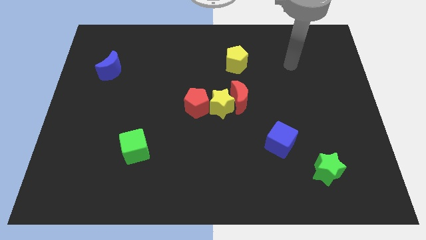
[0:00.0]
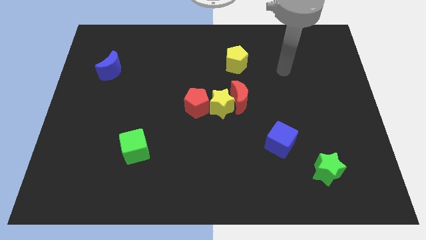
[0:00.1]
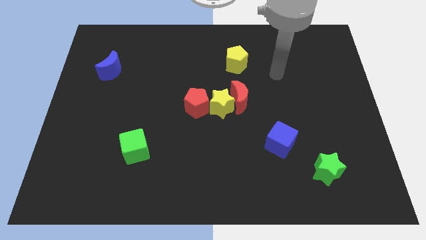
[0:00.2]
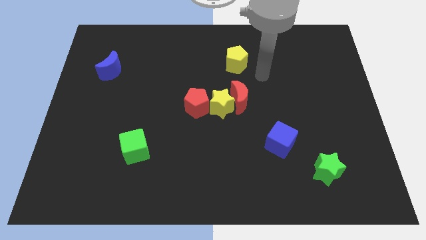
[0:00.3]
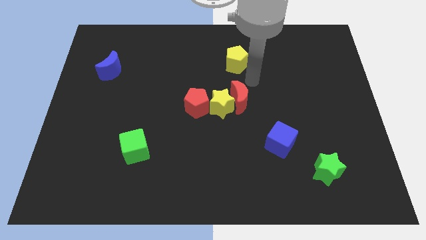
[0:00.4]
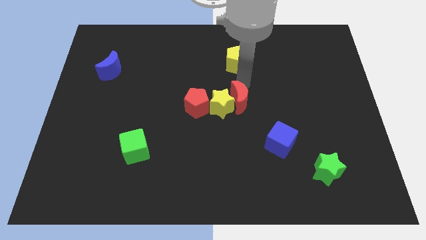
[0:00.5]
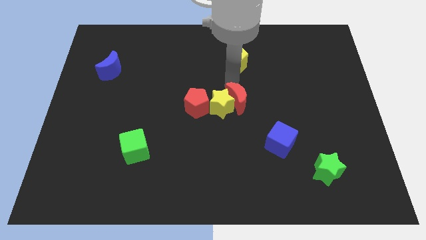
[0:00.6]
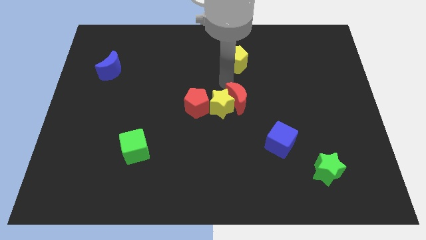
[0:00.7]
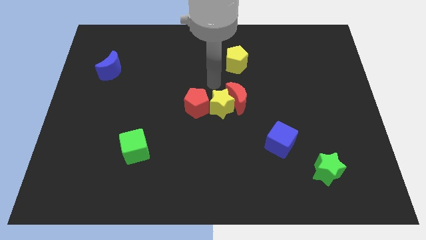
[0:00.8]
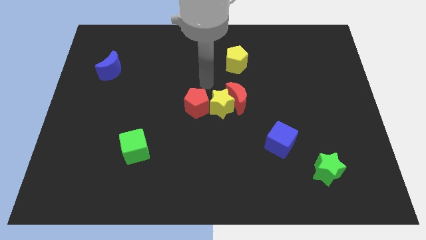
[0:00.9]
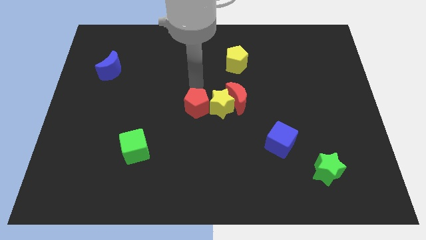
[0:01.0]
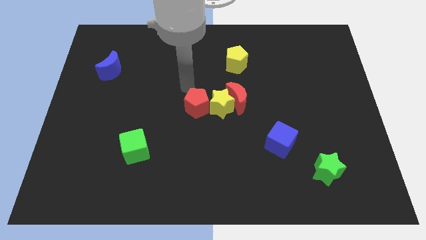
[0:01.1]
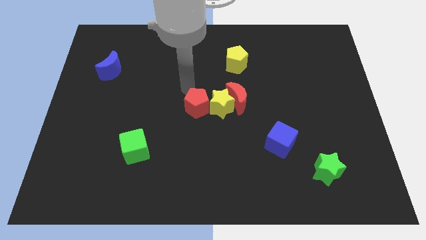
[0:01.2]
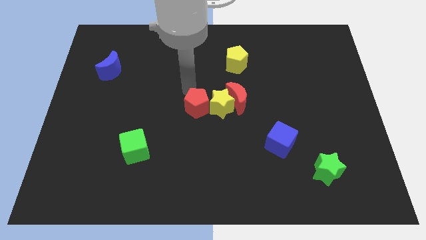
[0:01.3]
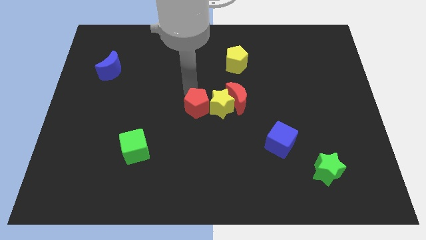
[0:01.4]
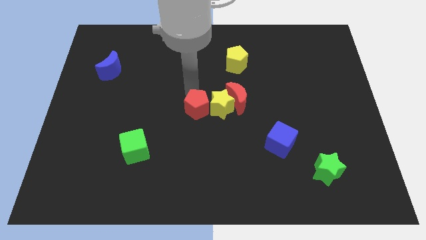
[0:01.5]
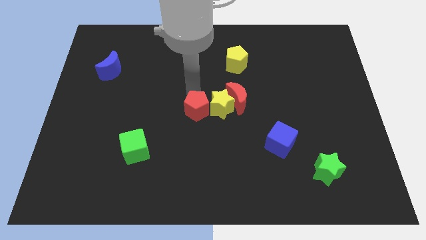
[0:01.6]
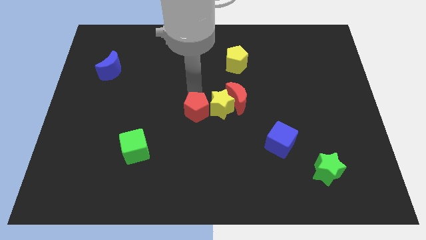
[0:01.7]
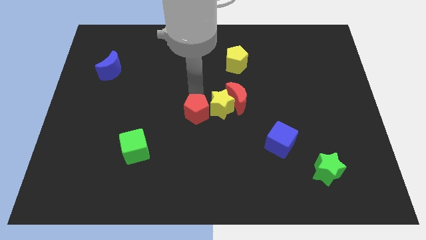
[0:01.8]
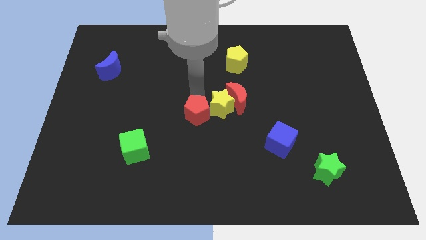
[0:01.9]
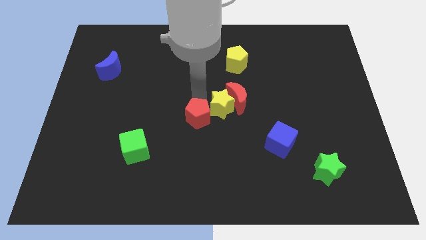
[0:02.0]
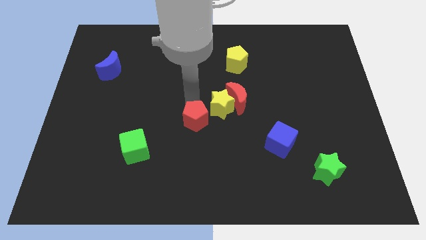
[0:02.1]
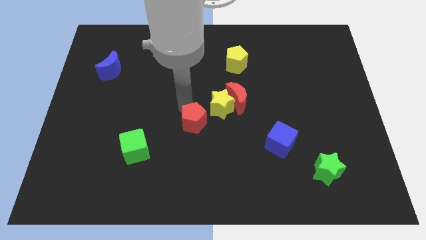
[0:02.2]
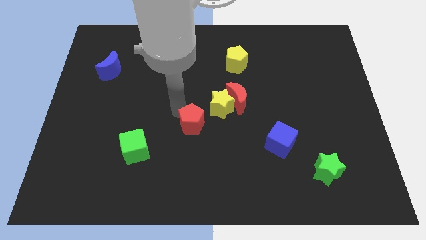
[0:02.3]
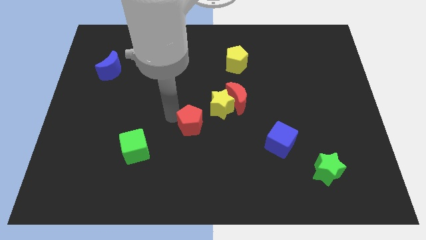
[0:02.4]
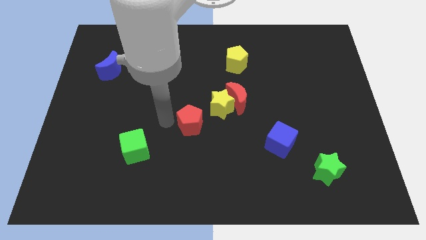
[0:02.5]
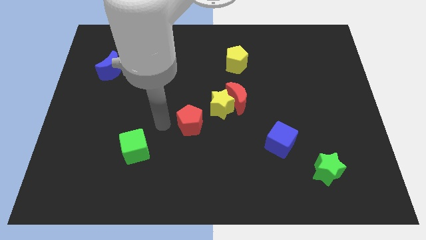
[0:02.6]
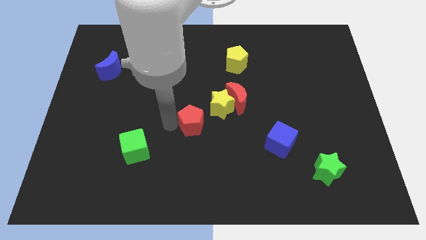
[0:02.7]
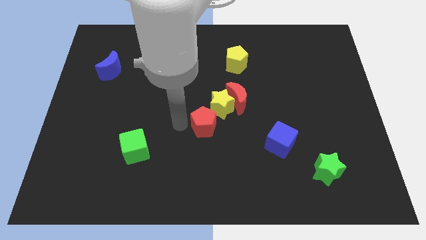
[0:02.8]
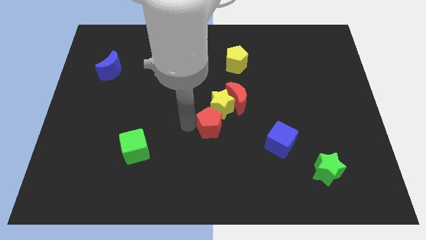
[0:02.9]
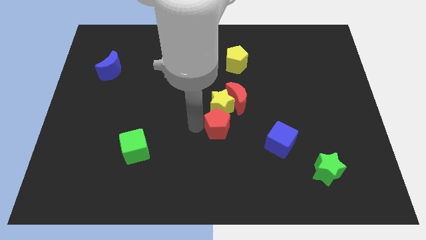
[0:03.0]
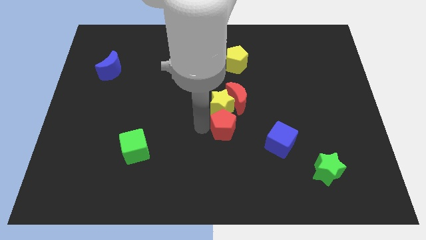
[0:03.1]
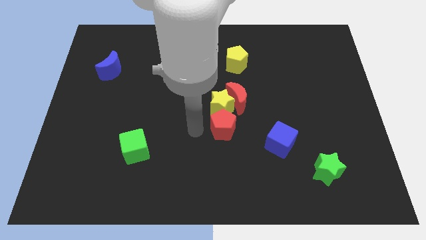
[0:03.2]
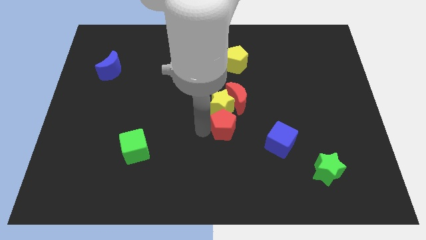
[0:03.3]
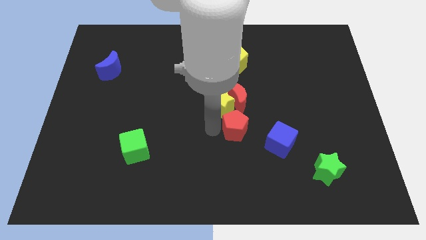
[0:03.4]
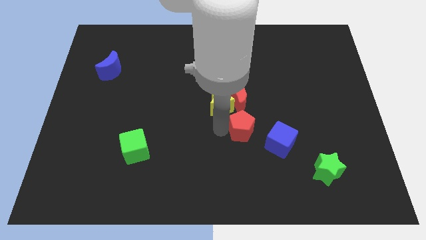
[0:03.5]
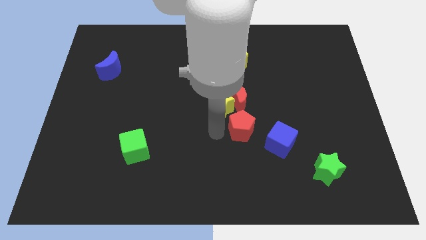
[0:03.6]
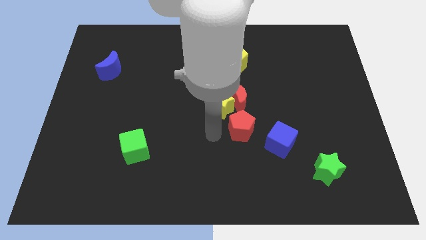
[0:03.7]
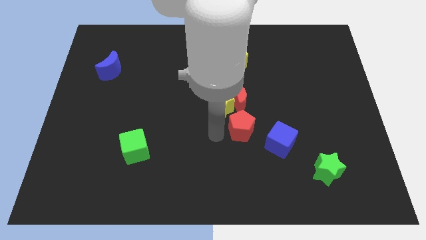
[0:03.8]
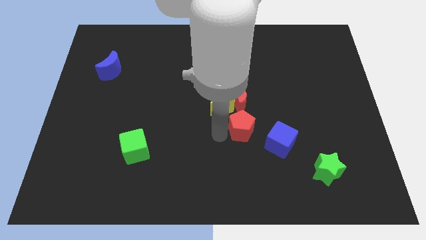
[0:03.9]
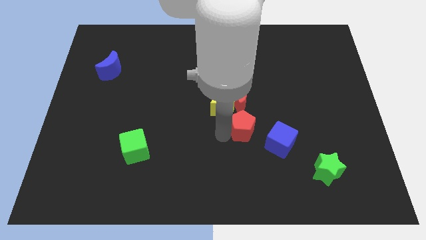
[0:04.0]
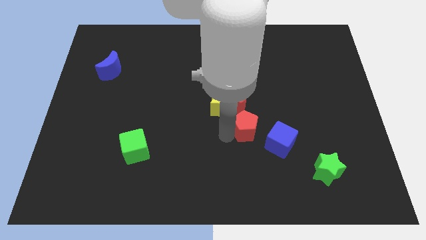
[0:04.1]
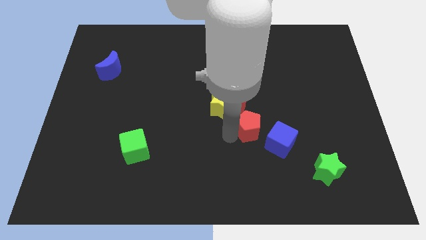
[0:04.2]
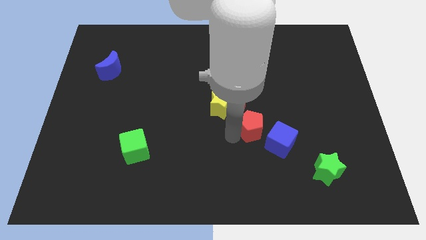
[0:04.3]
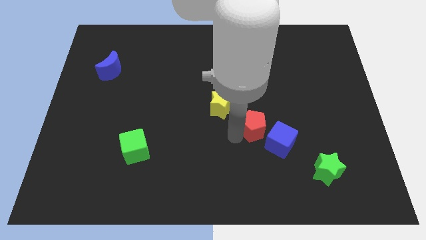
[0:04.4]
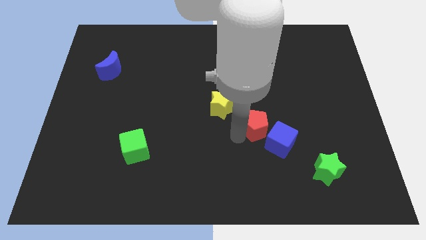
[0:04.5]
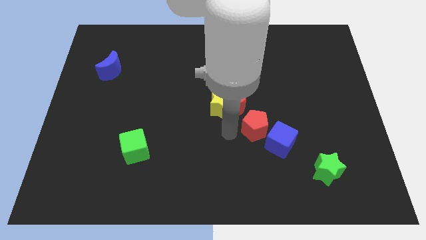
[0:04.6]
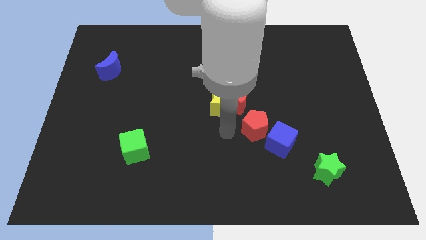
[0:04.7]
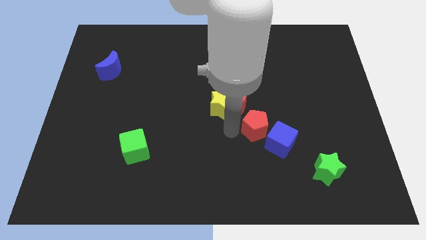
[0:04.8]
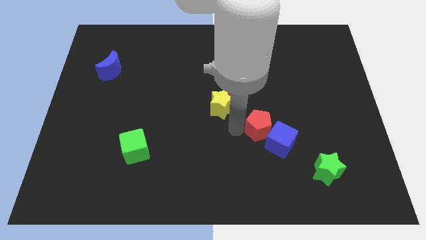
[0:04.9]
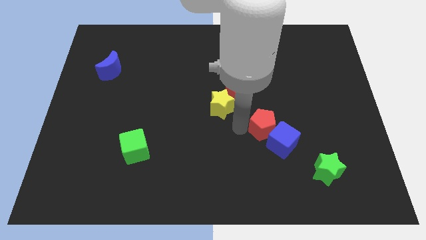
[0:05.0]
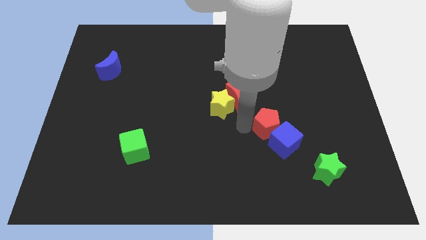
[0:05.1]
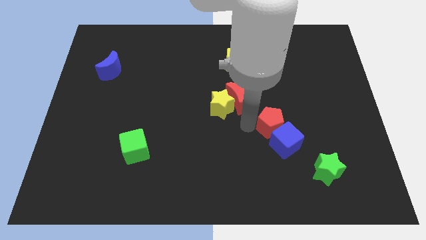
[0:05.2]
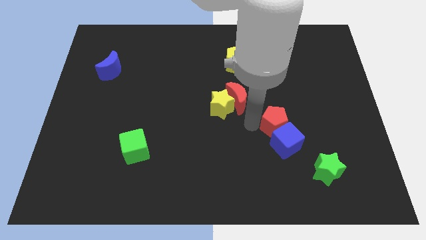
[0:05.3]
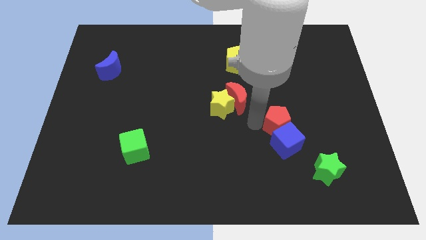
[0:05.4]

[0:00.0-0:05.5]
slide the red pentagon to the top right of the blue cube
